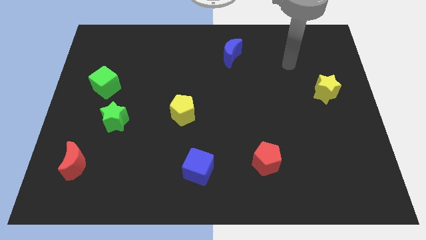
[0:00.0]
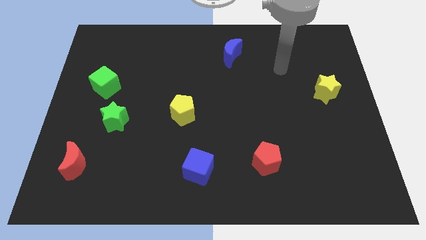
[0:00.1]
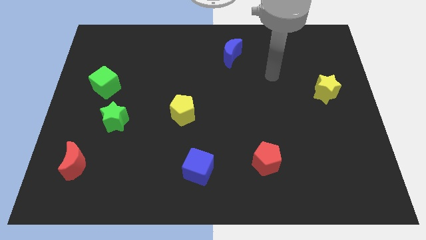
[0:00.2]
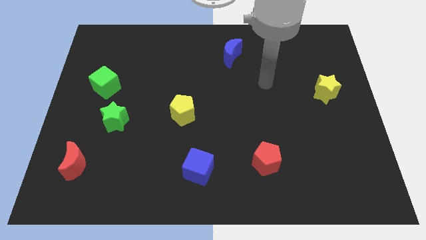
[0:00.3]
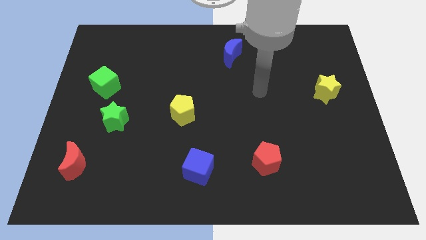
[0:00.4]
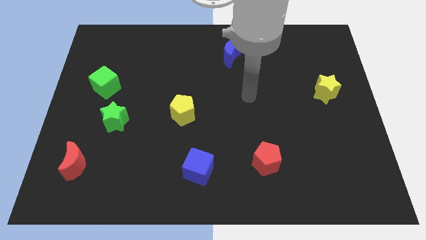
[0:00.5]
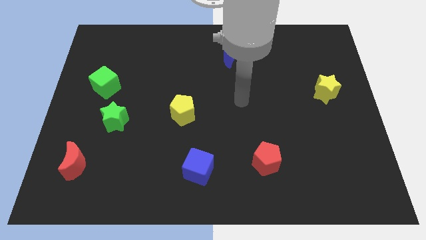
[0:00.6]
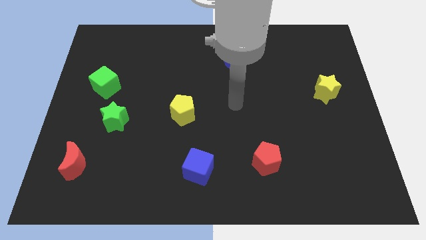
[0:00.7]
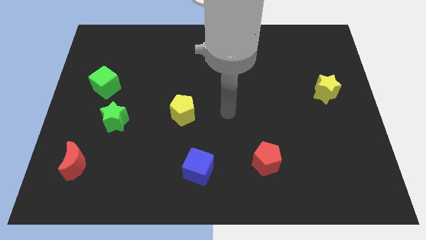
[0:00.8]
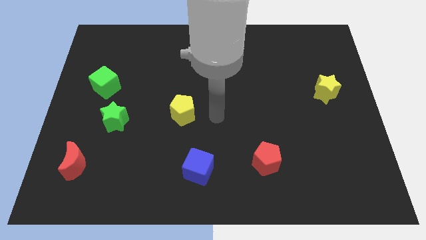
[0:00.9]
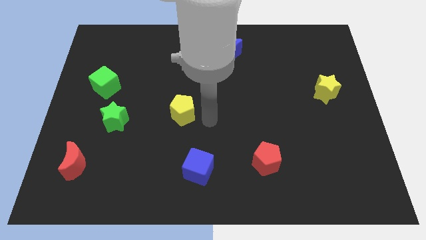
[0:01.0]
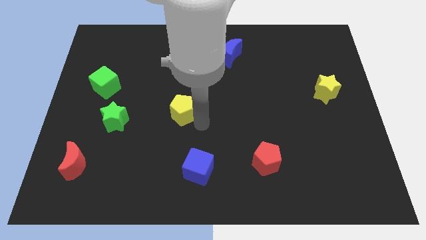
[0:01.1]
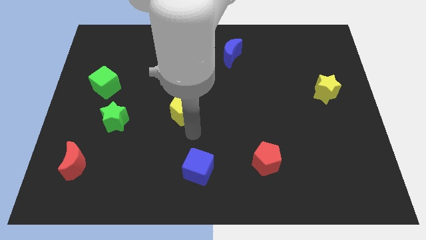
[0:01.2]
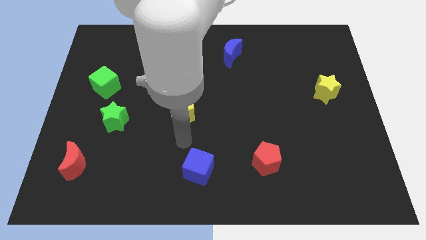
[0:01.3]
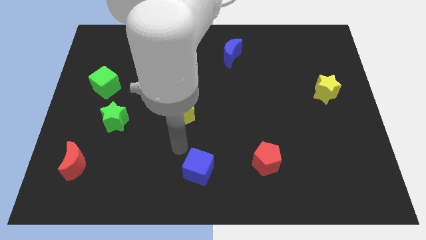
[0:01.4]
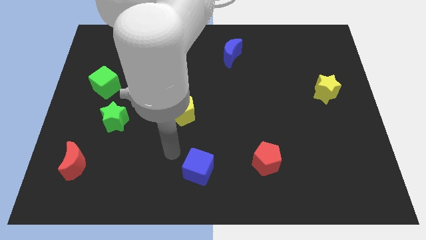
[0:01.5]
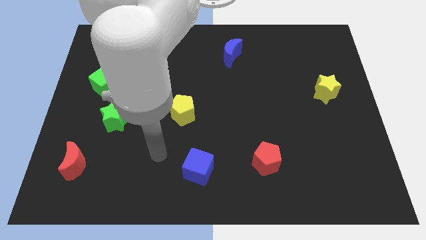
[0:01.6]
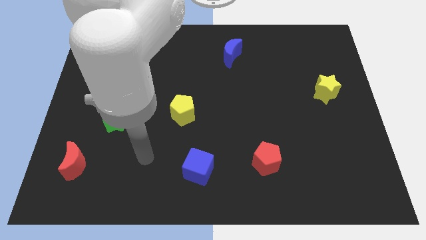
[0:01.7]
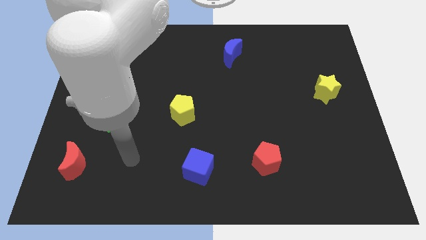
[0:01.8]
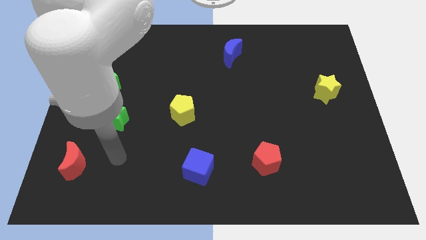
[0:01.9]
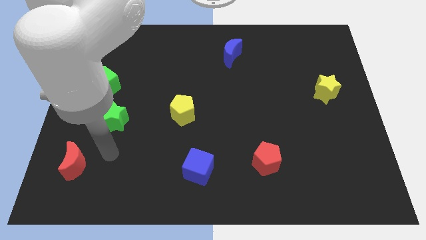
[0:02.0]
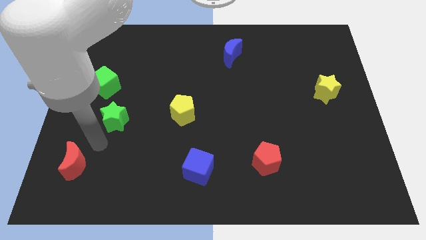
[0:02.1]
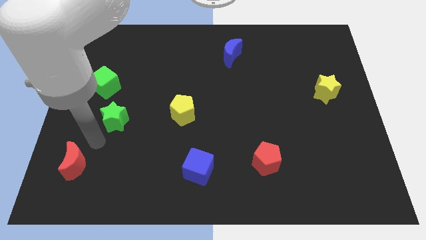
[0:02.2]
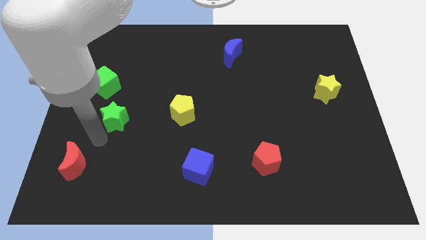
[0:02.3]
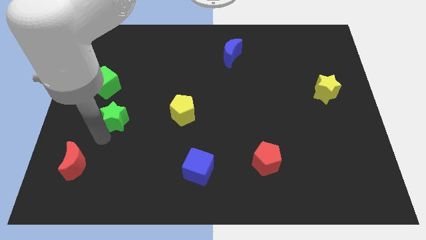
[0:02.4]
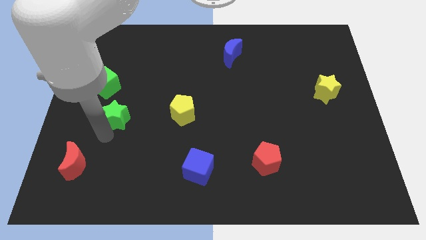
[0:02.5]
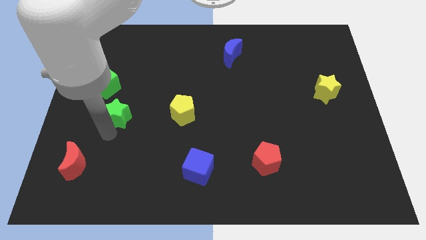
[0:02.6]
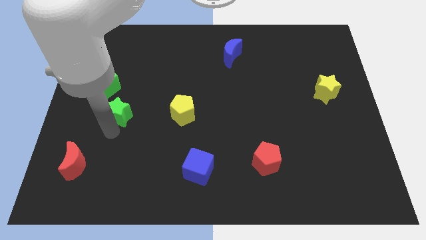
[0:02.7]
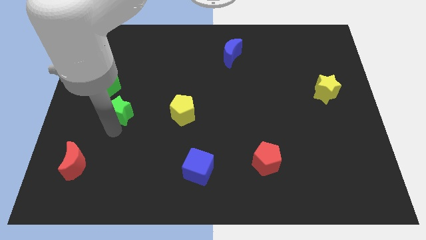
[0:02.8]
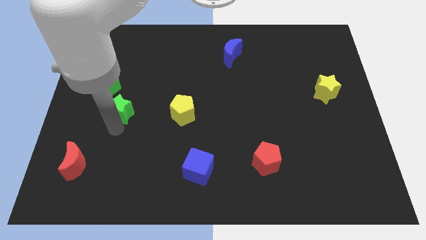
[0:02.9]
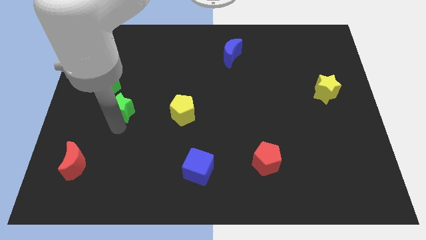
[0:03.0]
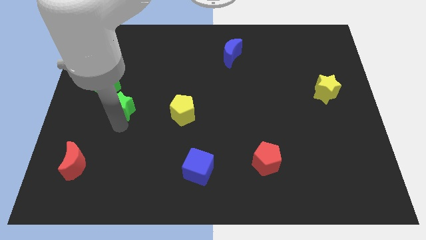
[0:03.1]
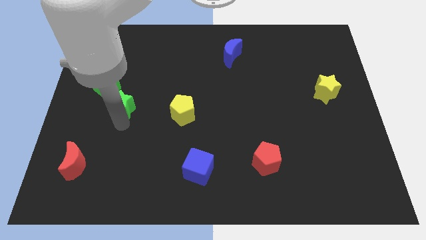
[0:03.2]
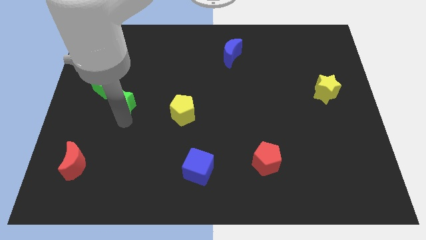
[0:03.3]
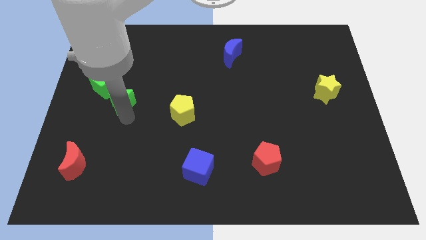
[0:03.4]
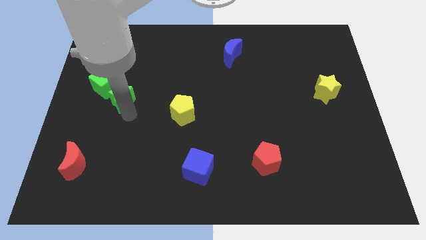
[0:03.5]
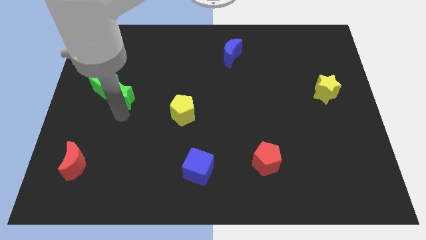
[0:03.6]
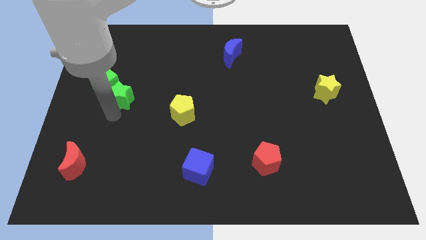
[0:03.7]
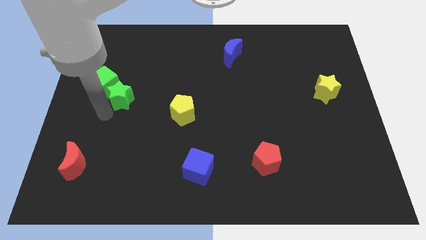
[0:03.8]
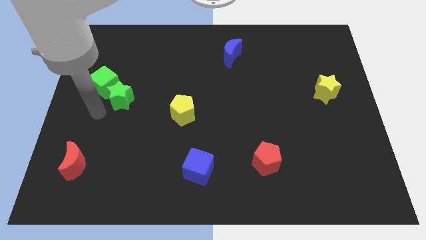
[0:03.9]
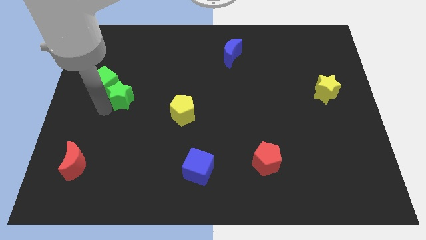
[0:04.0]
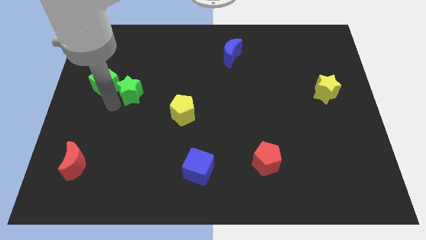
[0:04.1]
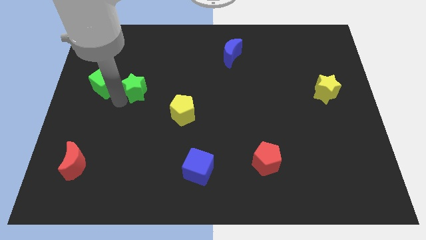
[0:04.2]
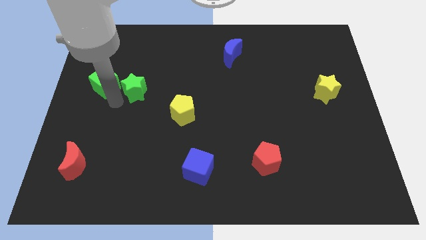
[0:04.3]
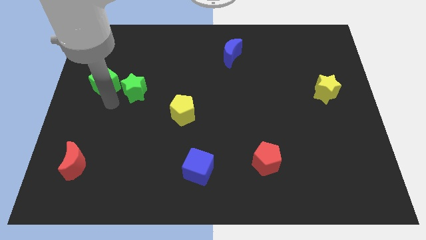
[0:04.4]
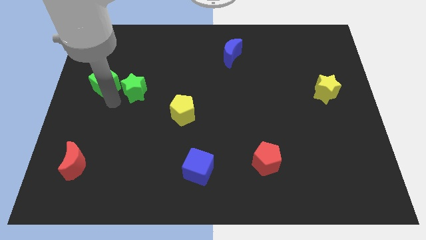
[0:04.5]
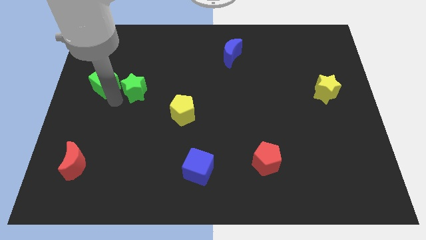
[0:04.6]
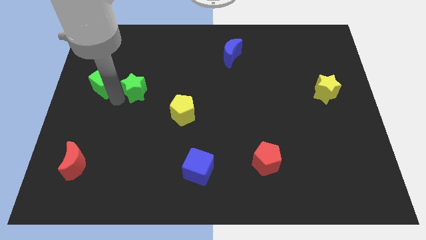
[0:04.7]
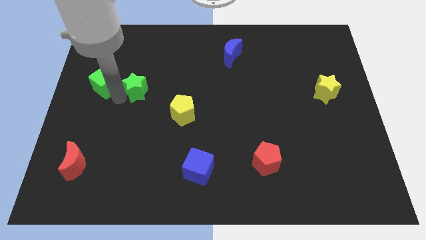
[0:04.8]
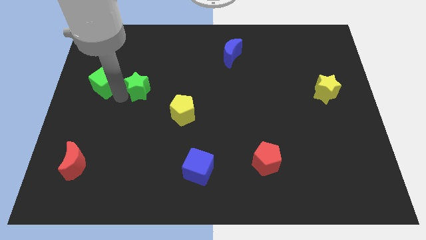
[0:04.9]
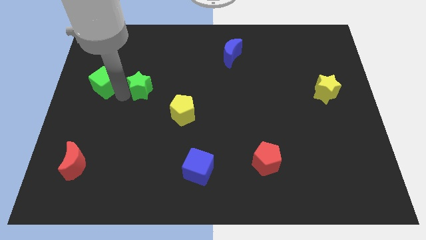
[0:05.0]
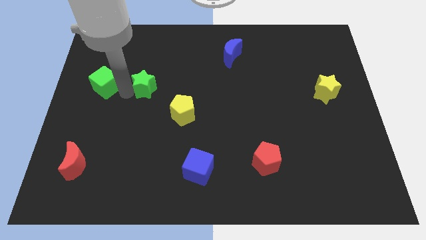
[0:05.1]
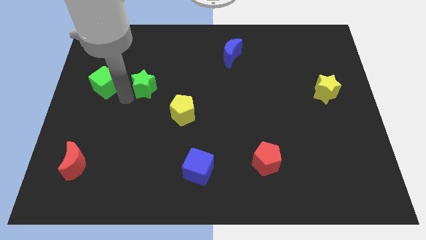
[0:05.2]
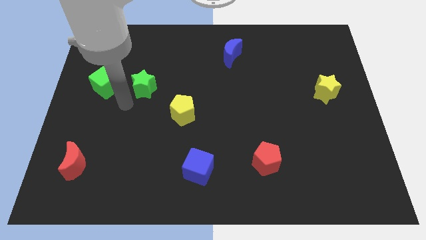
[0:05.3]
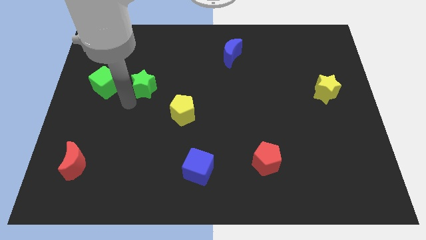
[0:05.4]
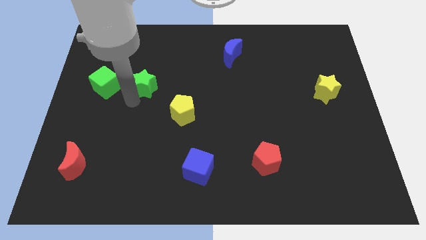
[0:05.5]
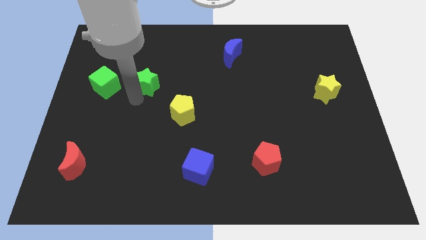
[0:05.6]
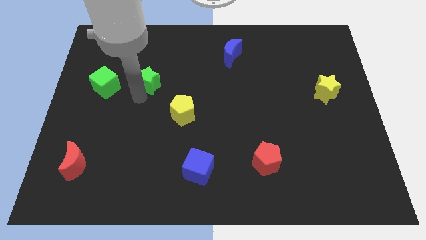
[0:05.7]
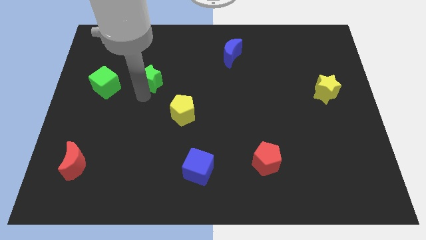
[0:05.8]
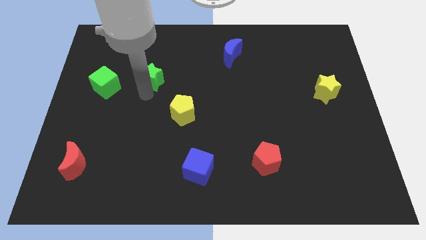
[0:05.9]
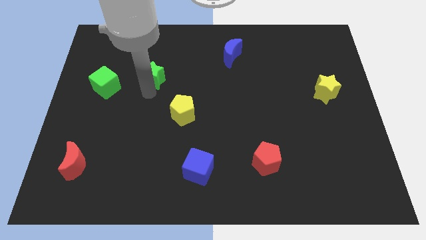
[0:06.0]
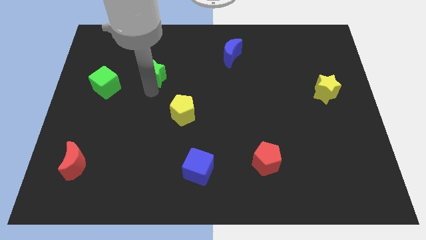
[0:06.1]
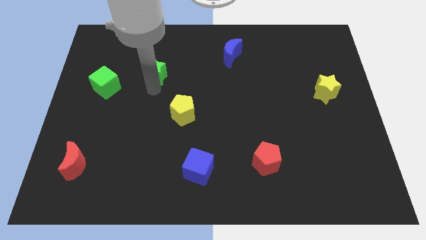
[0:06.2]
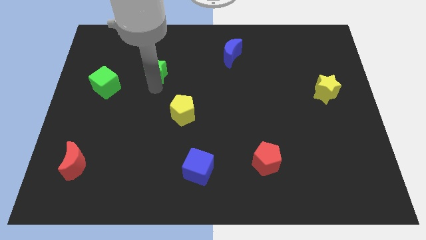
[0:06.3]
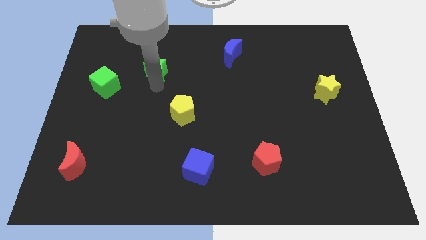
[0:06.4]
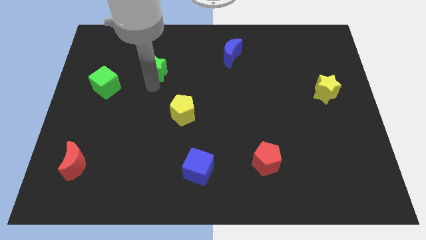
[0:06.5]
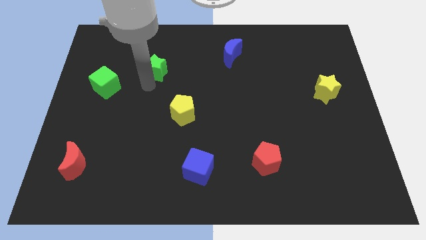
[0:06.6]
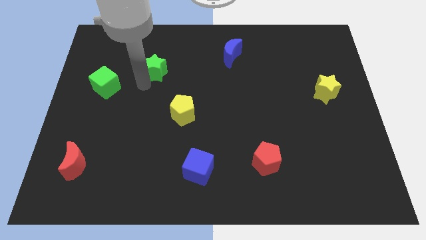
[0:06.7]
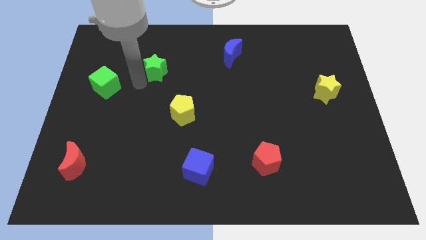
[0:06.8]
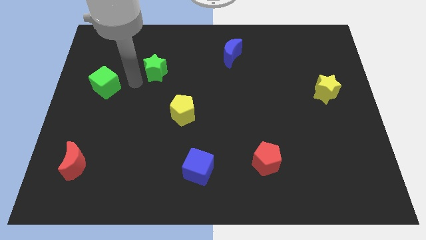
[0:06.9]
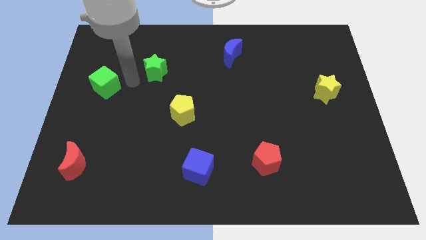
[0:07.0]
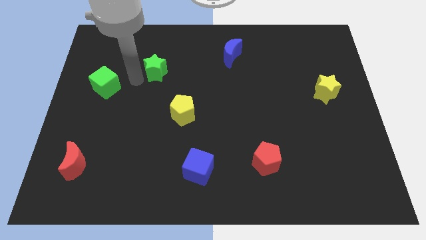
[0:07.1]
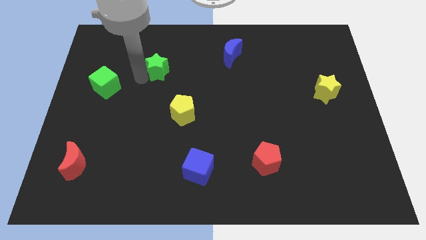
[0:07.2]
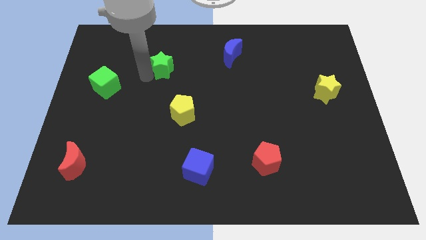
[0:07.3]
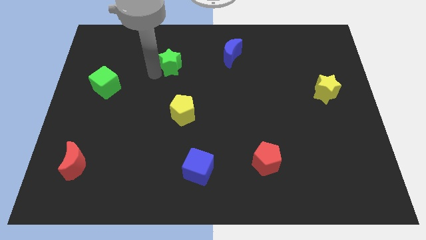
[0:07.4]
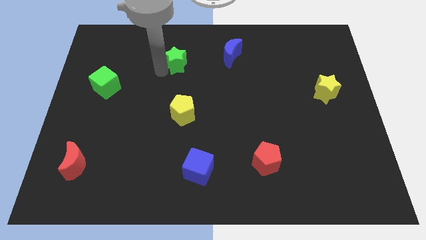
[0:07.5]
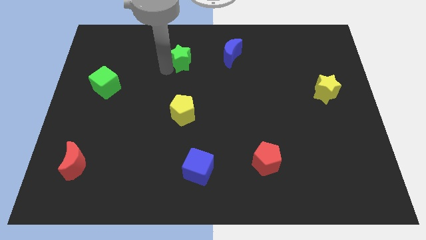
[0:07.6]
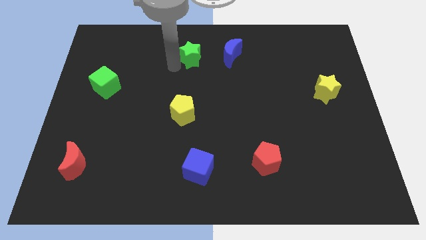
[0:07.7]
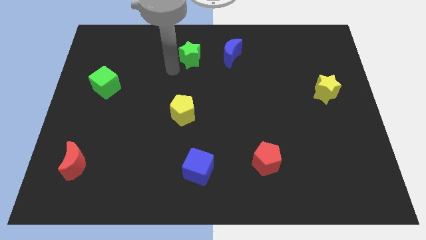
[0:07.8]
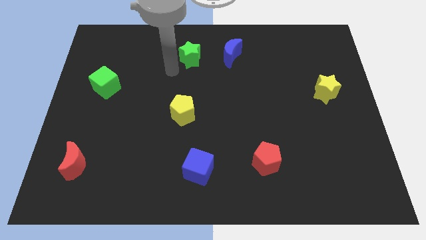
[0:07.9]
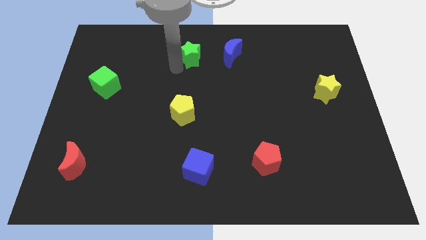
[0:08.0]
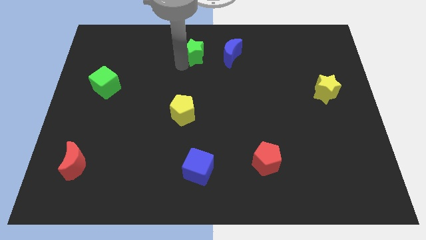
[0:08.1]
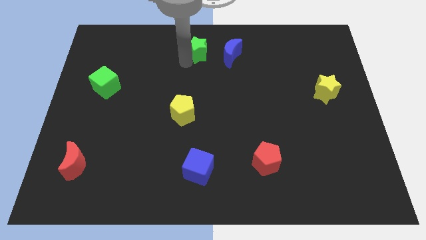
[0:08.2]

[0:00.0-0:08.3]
move the green star to the top side
